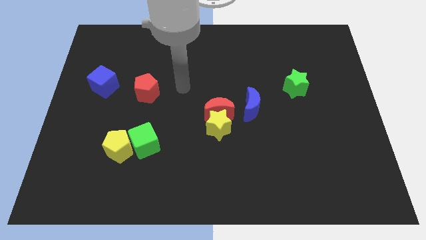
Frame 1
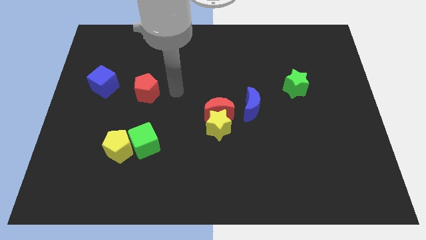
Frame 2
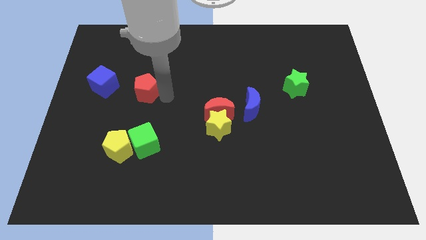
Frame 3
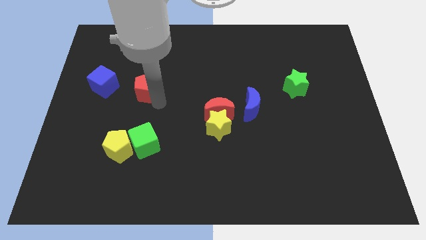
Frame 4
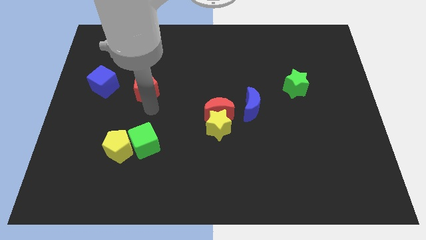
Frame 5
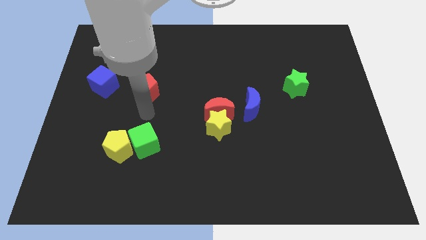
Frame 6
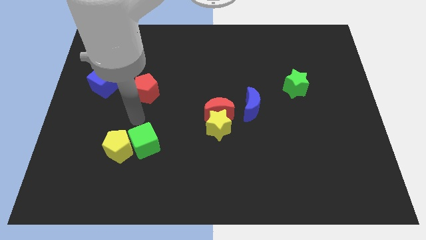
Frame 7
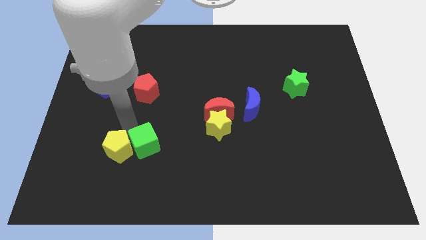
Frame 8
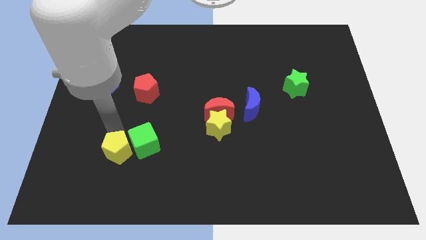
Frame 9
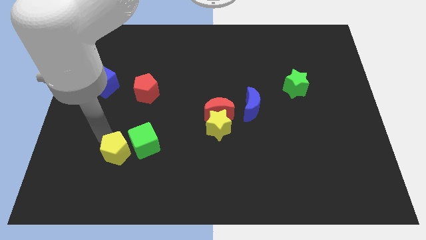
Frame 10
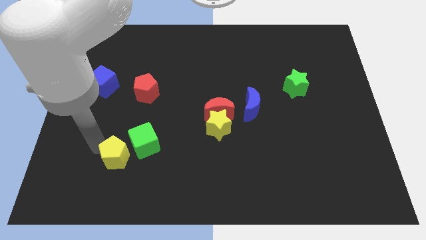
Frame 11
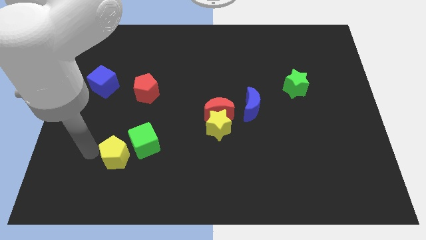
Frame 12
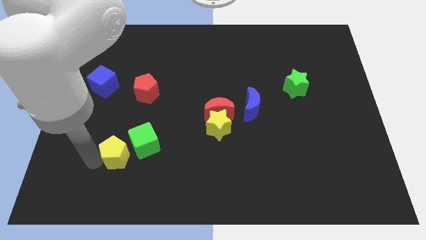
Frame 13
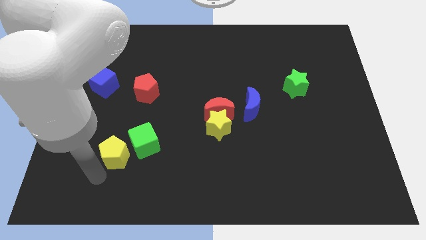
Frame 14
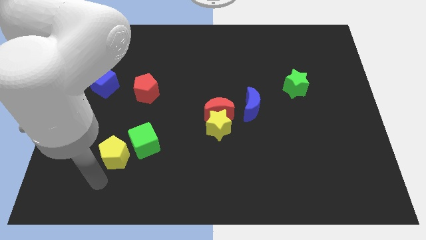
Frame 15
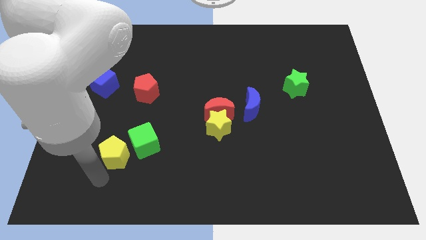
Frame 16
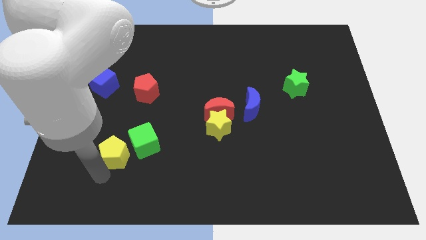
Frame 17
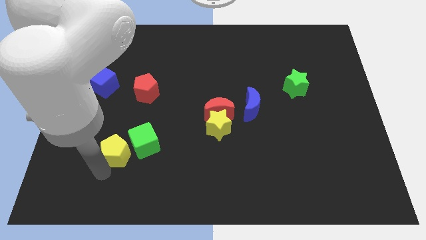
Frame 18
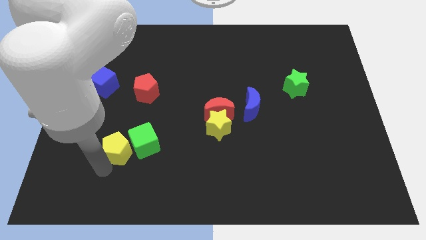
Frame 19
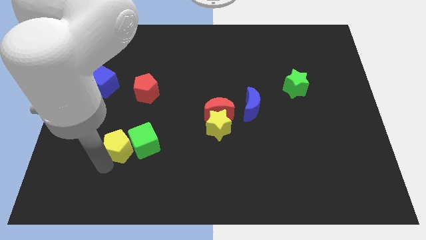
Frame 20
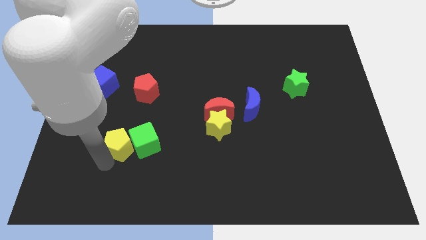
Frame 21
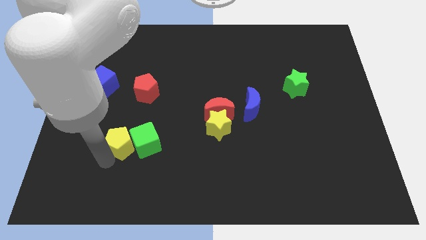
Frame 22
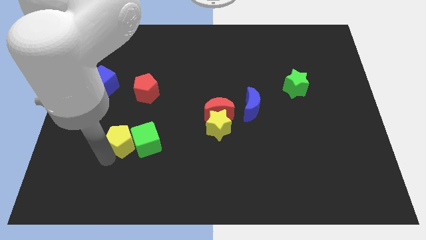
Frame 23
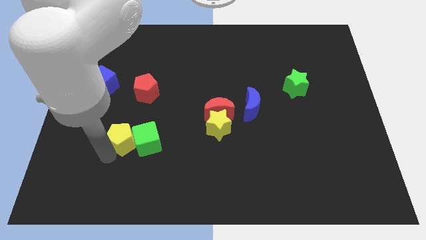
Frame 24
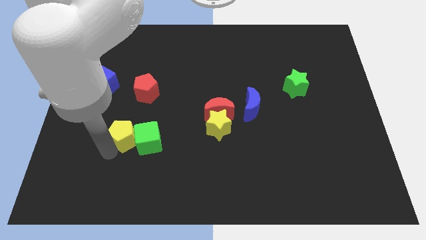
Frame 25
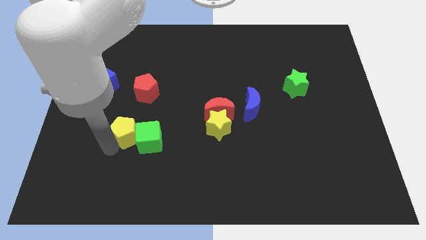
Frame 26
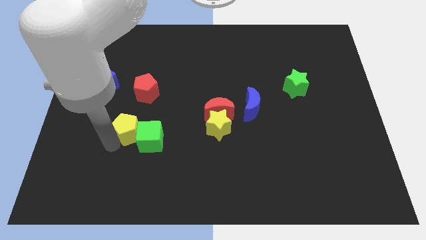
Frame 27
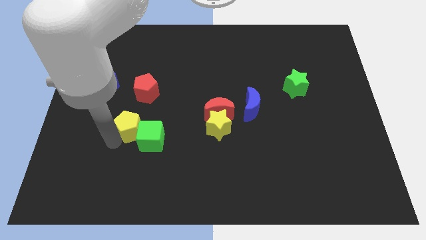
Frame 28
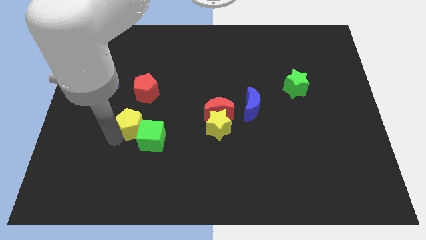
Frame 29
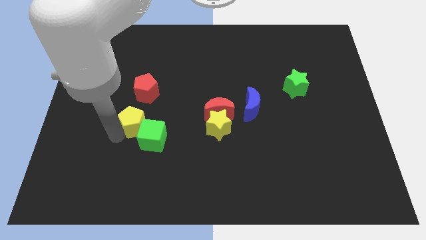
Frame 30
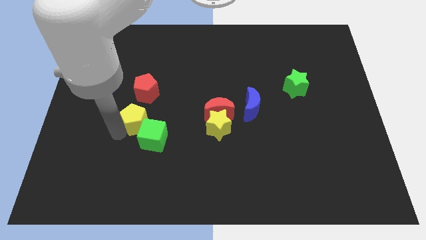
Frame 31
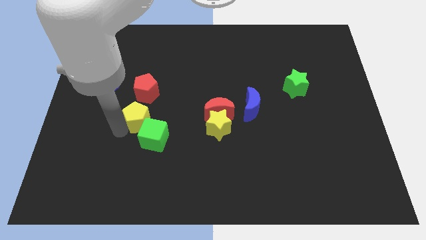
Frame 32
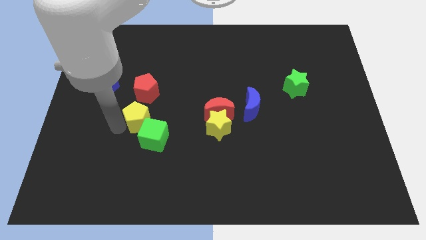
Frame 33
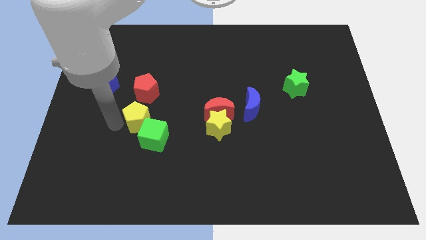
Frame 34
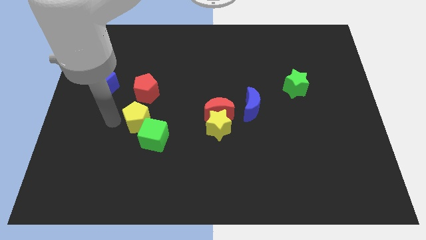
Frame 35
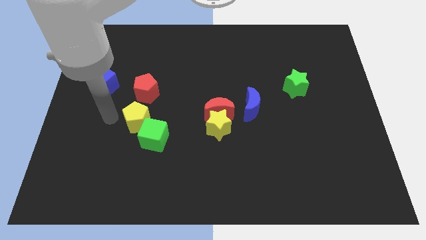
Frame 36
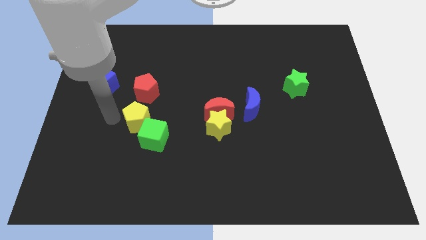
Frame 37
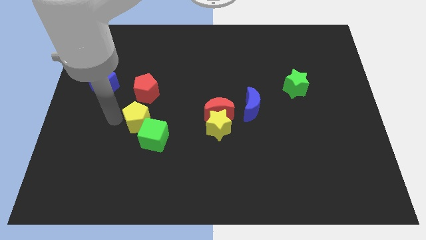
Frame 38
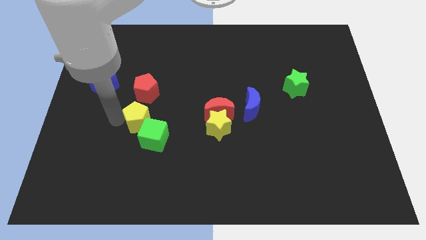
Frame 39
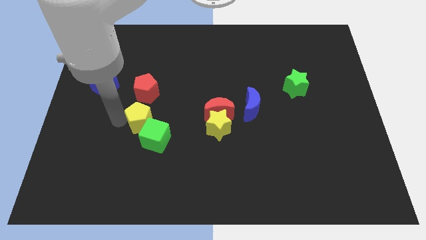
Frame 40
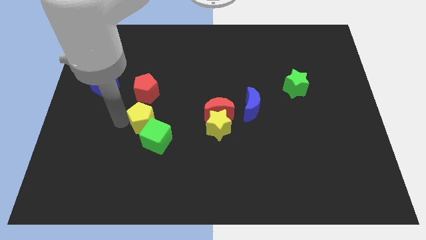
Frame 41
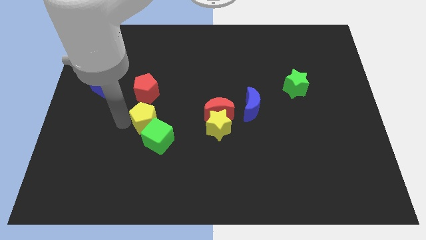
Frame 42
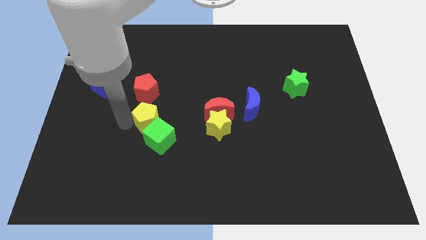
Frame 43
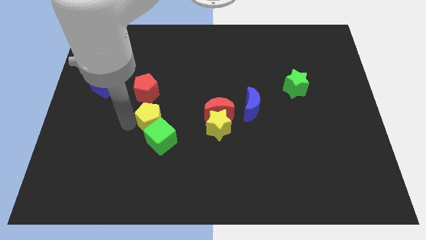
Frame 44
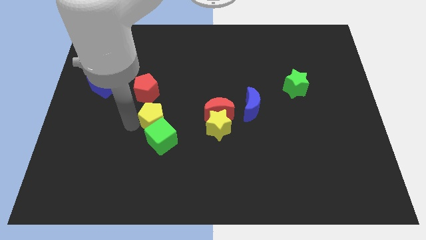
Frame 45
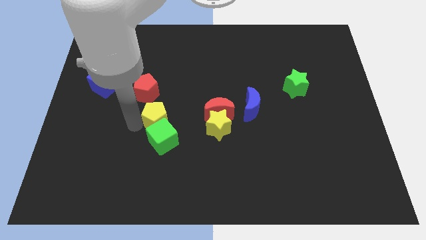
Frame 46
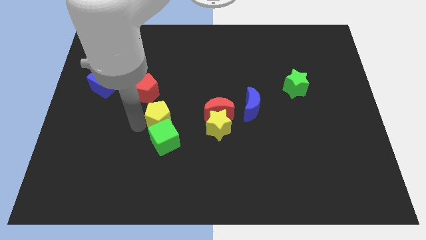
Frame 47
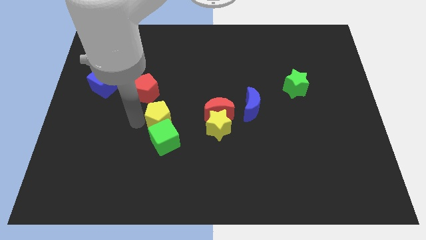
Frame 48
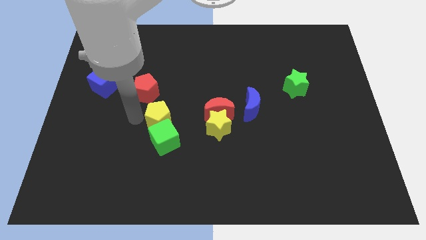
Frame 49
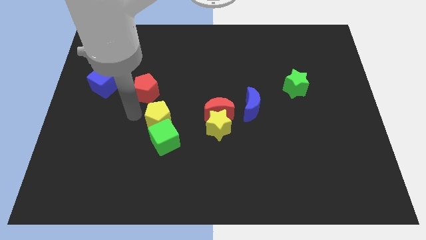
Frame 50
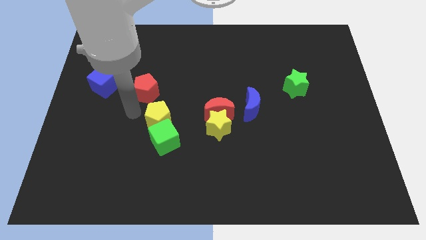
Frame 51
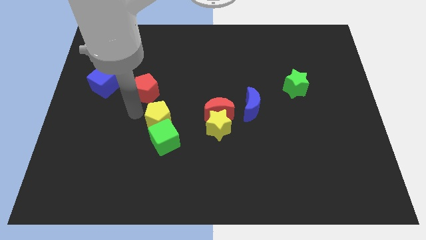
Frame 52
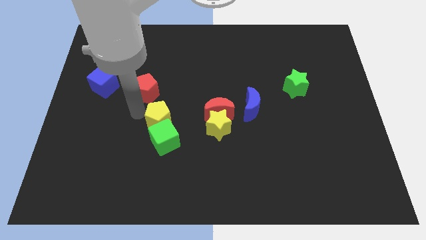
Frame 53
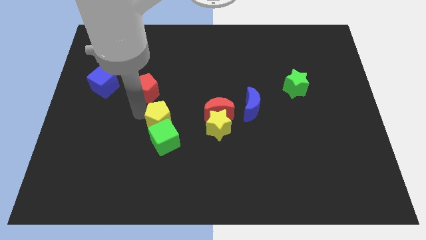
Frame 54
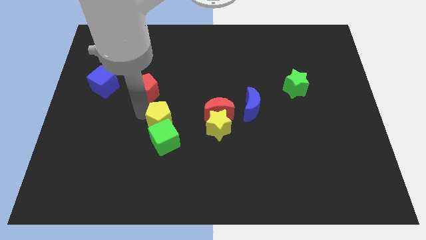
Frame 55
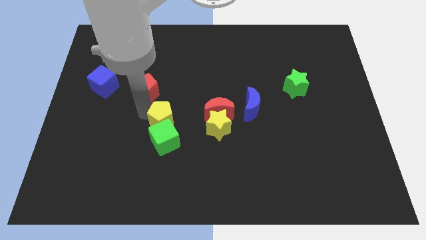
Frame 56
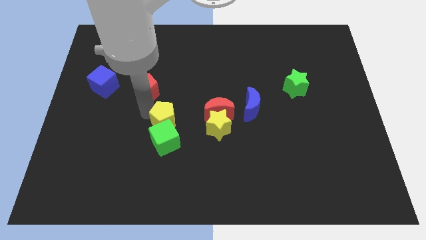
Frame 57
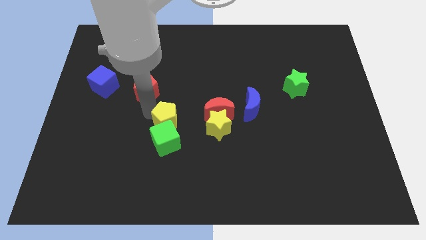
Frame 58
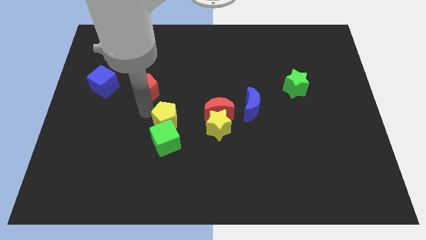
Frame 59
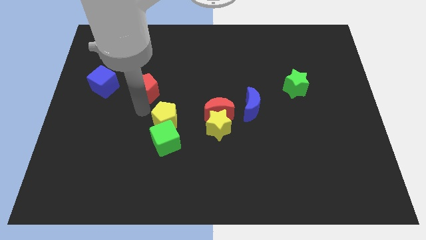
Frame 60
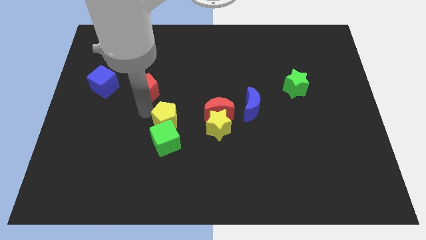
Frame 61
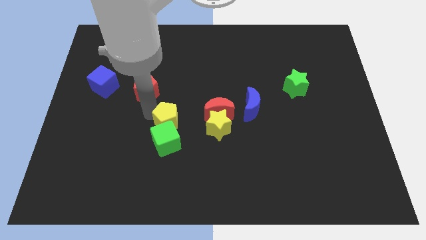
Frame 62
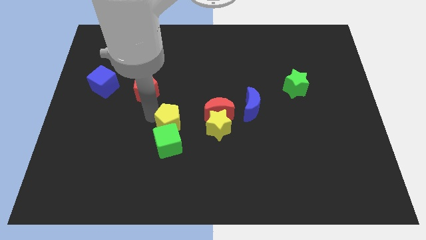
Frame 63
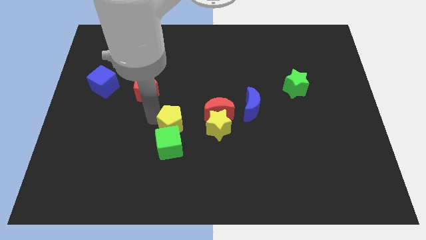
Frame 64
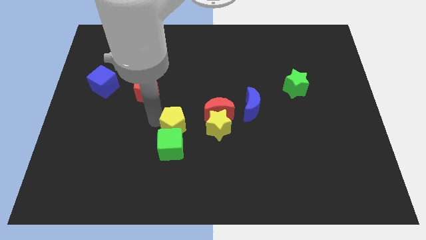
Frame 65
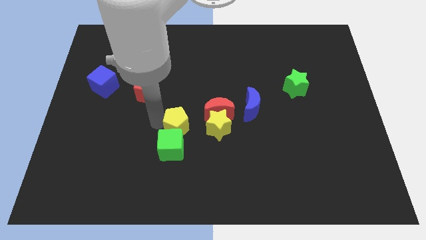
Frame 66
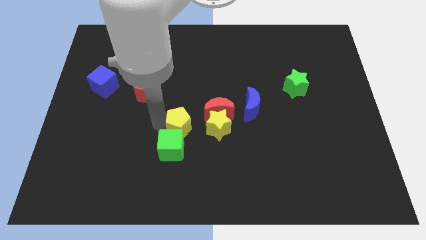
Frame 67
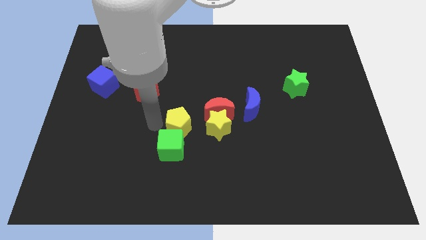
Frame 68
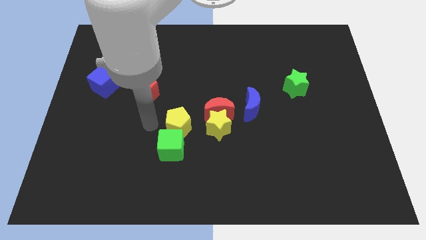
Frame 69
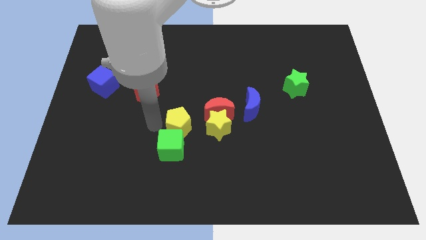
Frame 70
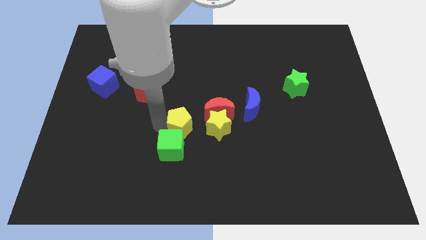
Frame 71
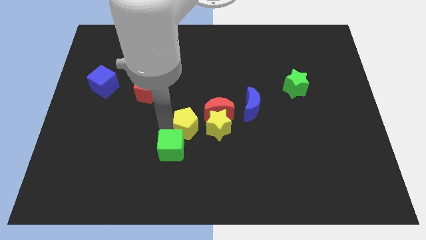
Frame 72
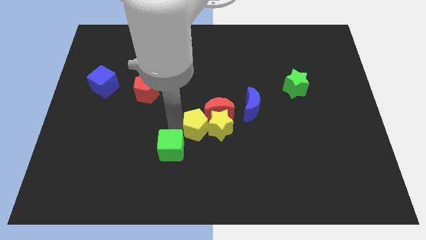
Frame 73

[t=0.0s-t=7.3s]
slide the yellow pentagon next to the yellow star

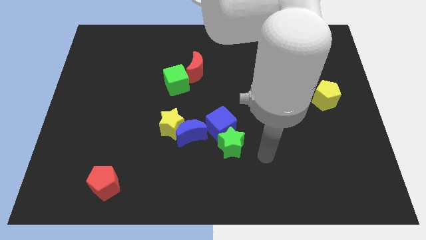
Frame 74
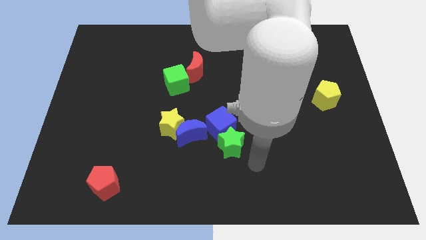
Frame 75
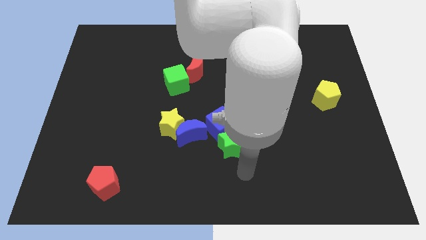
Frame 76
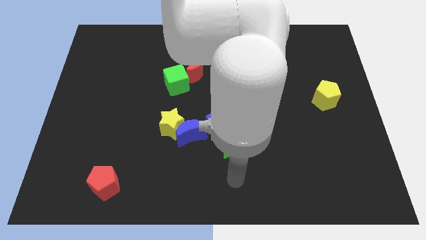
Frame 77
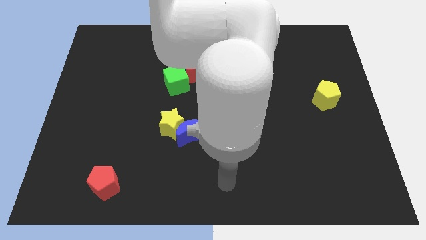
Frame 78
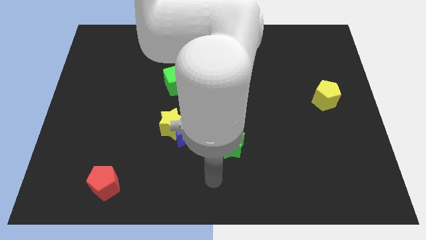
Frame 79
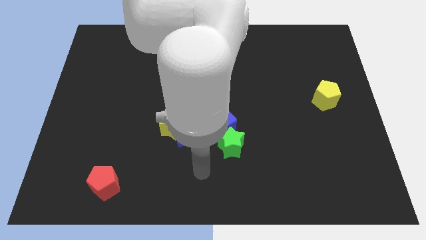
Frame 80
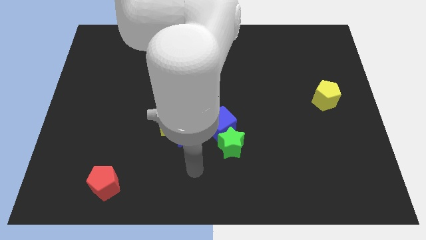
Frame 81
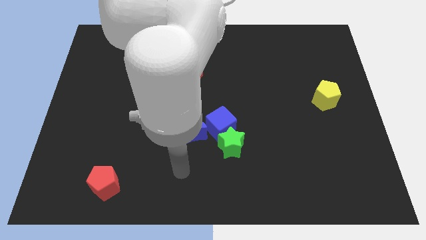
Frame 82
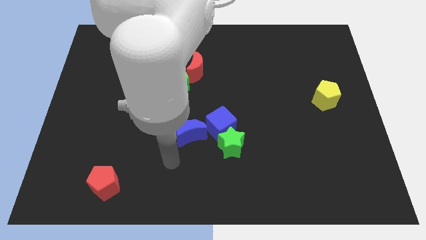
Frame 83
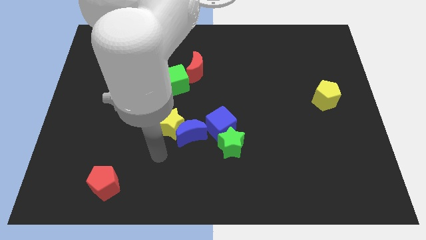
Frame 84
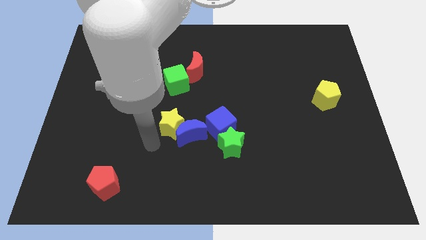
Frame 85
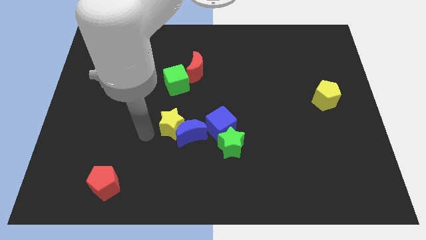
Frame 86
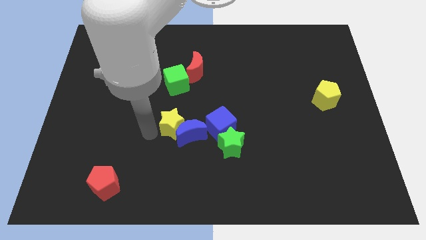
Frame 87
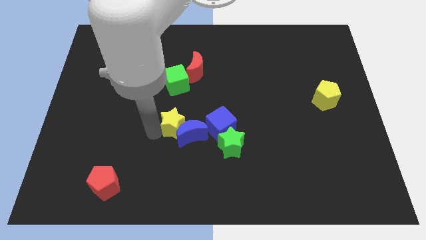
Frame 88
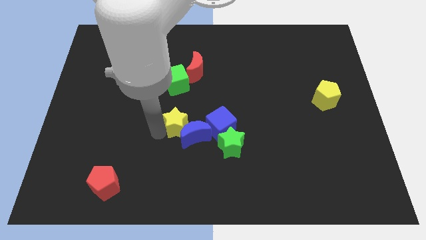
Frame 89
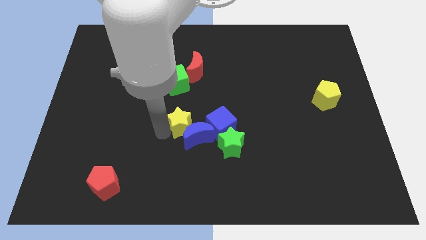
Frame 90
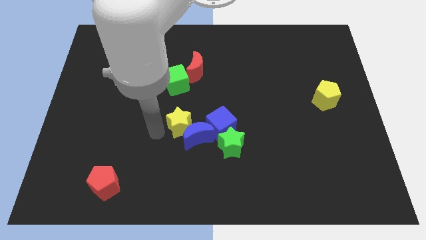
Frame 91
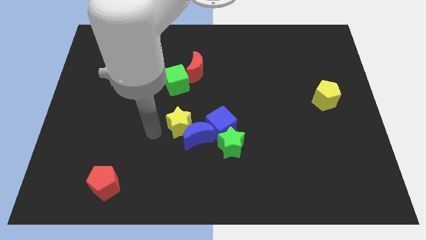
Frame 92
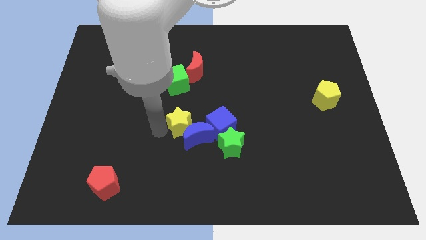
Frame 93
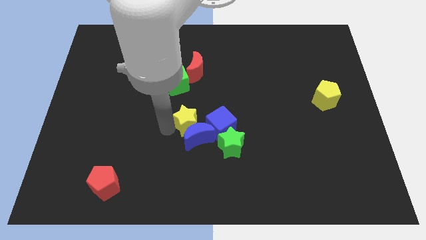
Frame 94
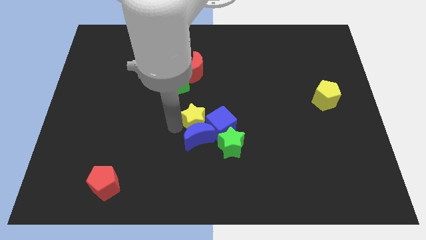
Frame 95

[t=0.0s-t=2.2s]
move the yellow star towards the blue cube
